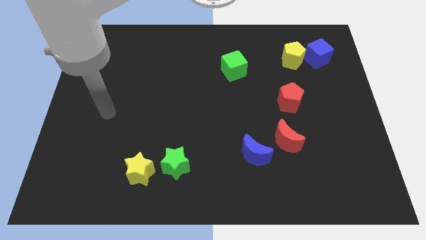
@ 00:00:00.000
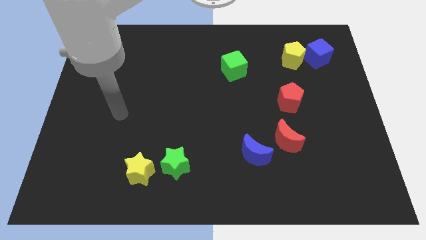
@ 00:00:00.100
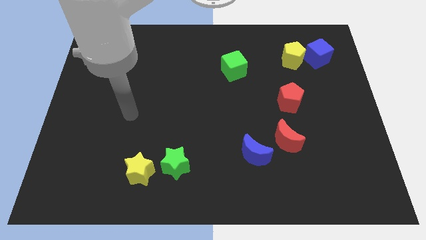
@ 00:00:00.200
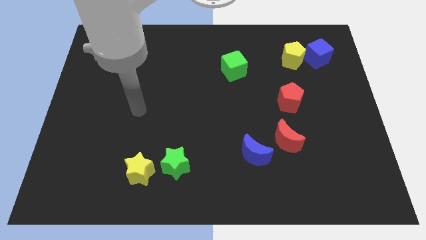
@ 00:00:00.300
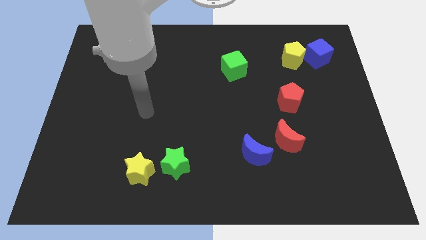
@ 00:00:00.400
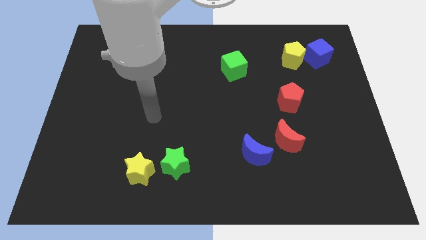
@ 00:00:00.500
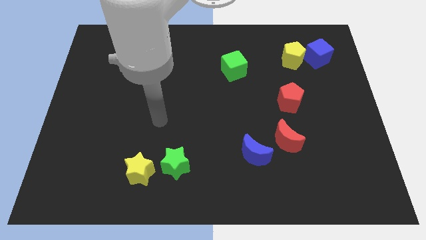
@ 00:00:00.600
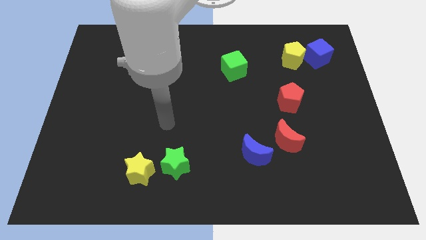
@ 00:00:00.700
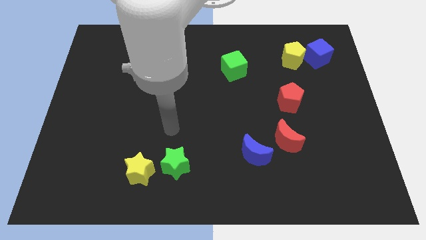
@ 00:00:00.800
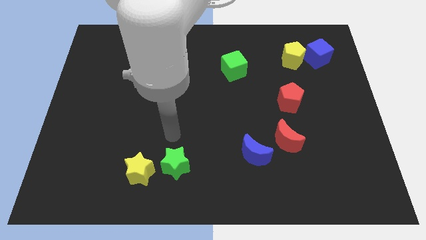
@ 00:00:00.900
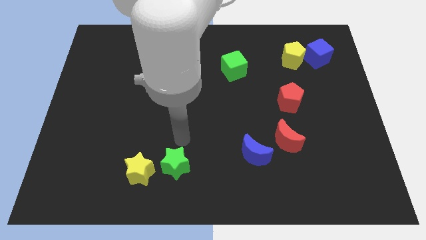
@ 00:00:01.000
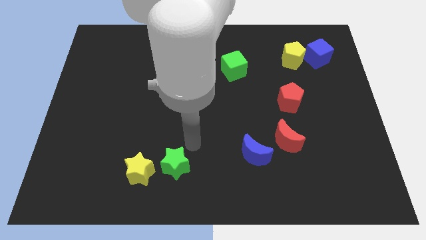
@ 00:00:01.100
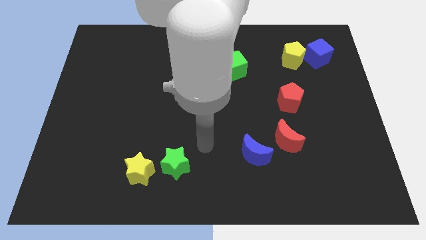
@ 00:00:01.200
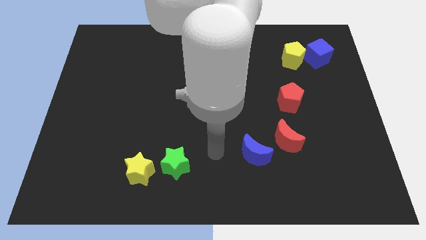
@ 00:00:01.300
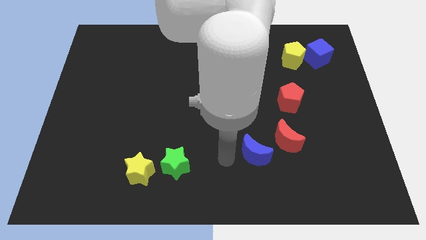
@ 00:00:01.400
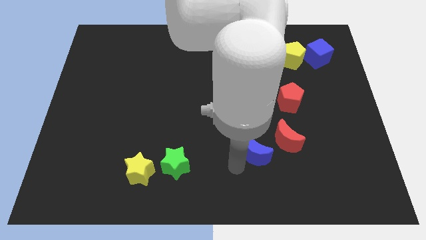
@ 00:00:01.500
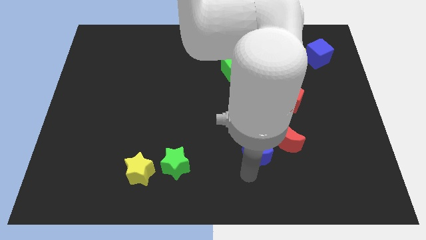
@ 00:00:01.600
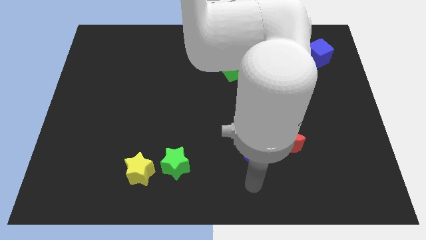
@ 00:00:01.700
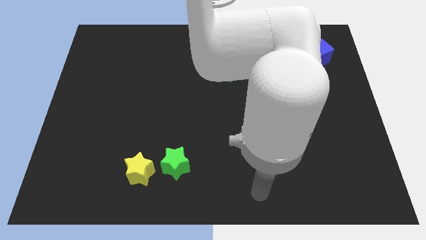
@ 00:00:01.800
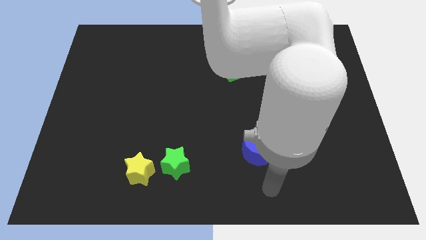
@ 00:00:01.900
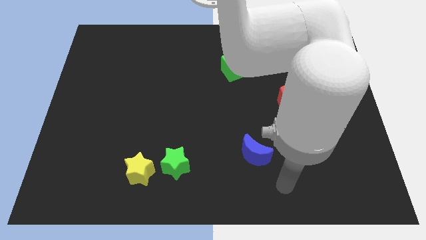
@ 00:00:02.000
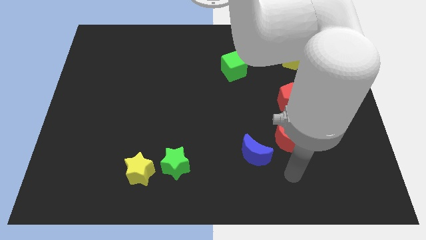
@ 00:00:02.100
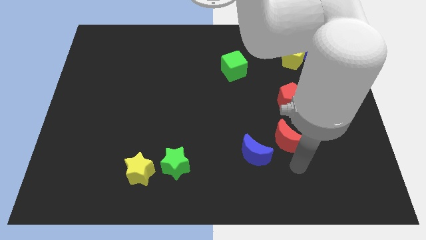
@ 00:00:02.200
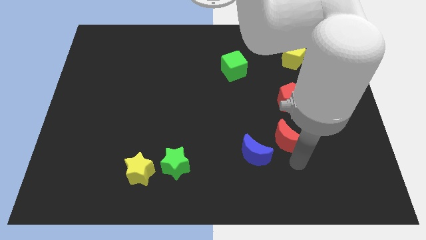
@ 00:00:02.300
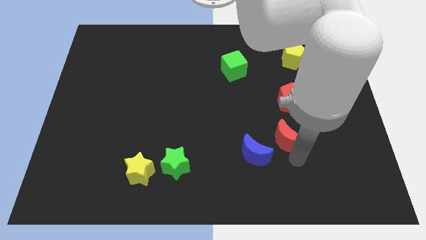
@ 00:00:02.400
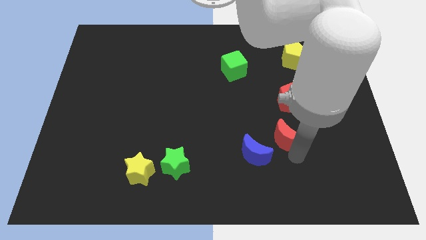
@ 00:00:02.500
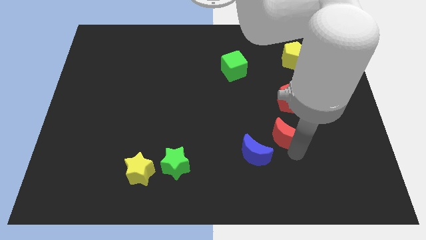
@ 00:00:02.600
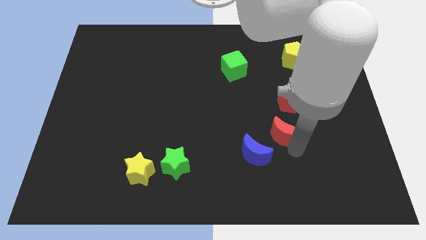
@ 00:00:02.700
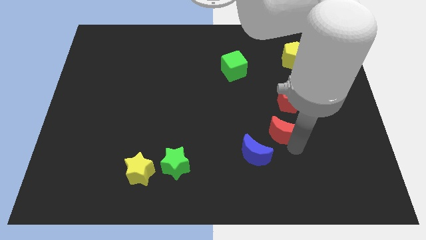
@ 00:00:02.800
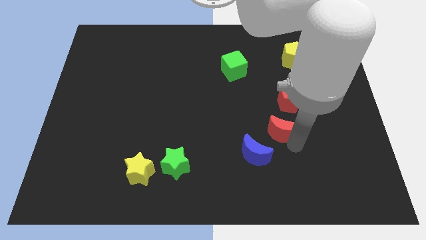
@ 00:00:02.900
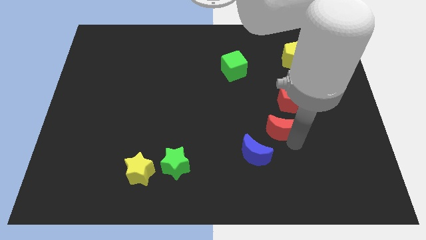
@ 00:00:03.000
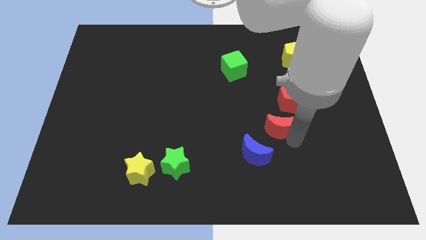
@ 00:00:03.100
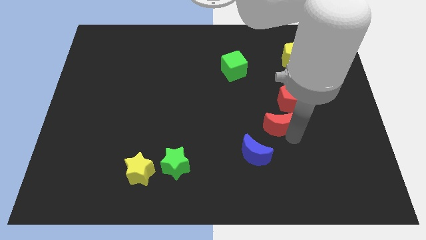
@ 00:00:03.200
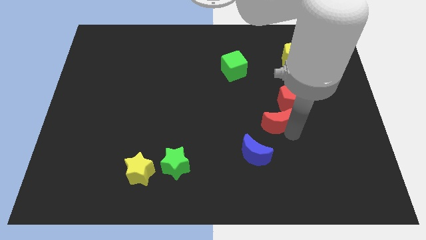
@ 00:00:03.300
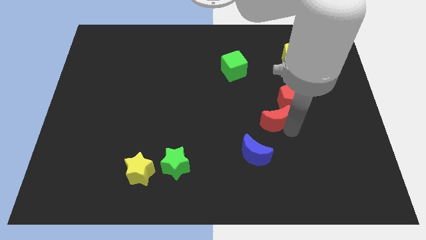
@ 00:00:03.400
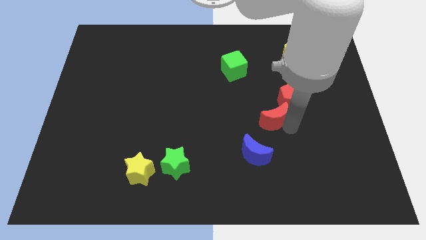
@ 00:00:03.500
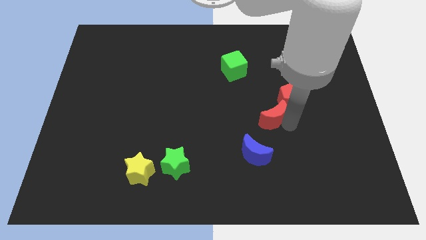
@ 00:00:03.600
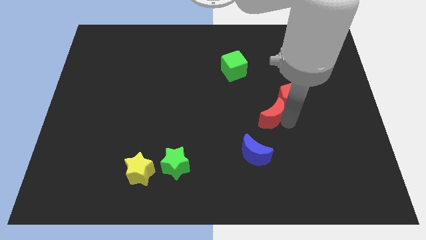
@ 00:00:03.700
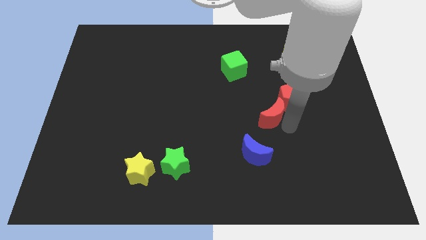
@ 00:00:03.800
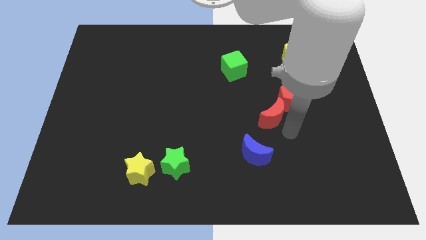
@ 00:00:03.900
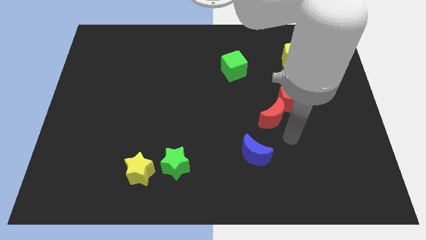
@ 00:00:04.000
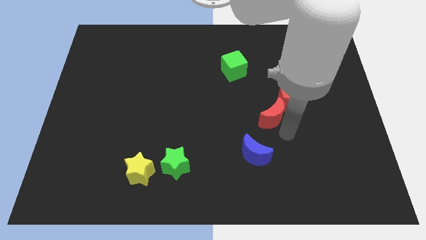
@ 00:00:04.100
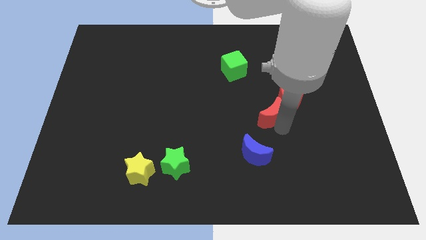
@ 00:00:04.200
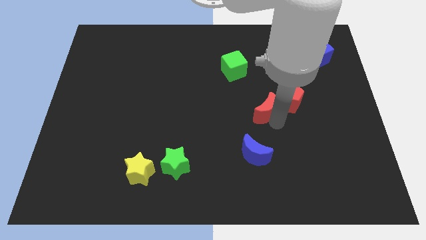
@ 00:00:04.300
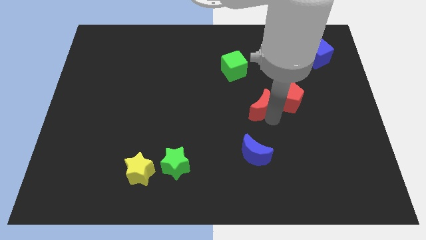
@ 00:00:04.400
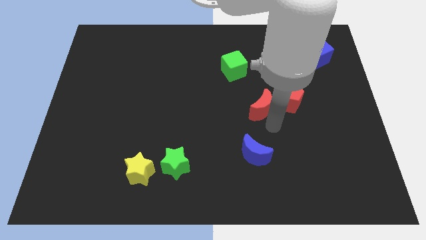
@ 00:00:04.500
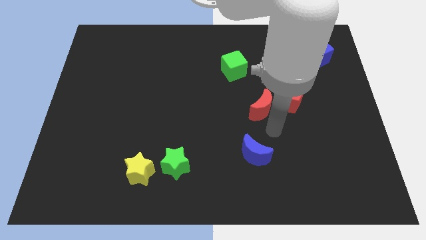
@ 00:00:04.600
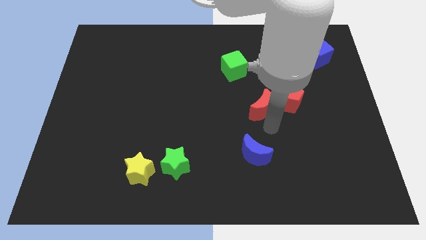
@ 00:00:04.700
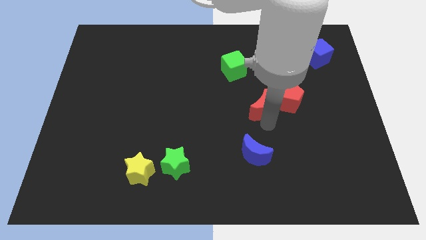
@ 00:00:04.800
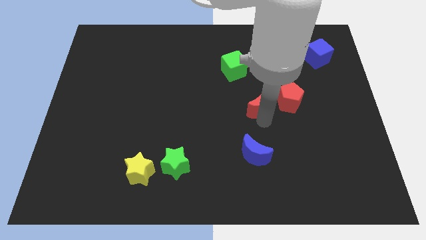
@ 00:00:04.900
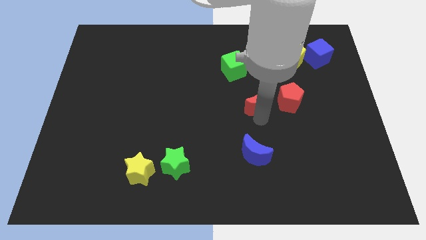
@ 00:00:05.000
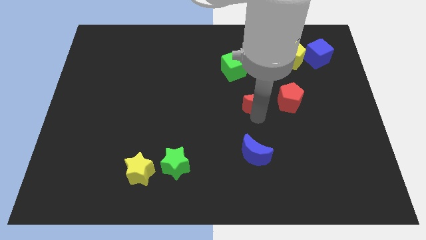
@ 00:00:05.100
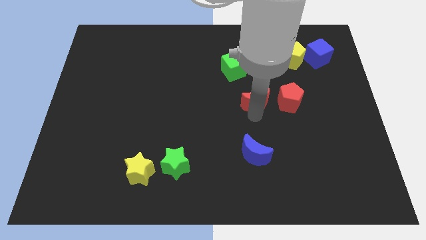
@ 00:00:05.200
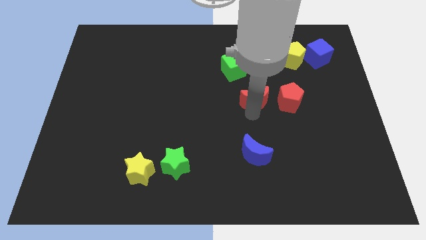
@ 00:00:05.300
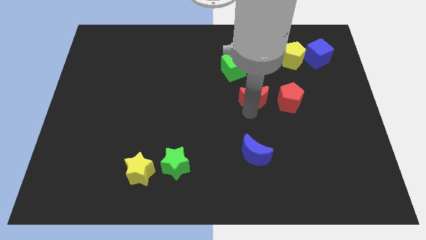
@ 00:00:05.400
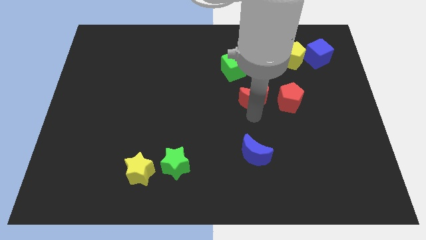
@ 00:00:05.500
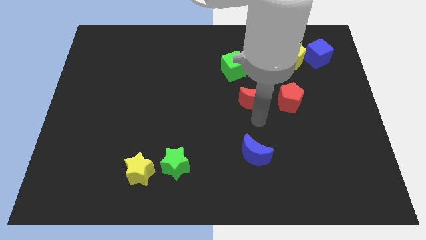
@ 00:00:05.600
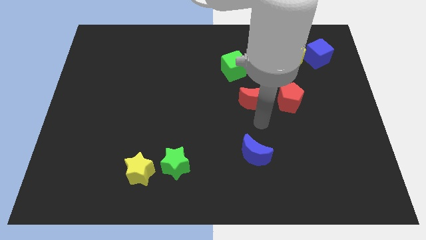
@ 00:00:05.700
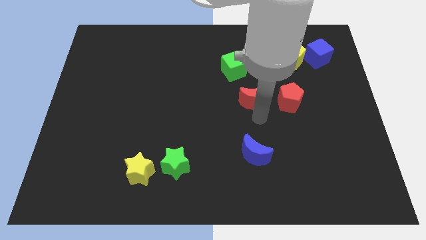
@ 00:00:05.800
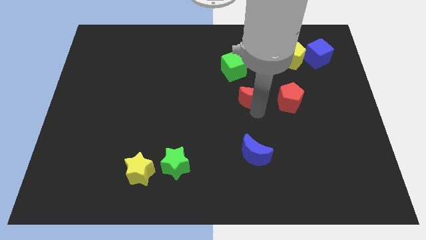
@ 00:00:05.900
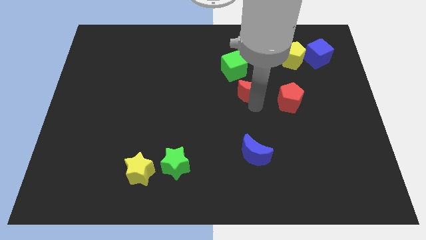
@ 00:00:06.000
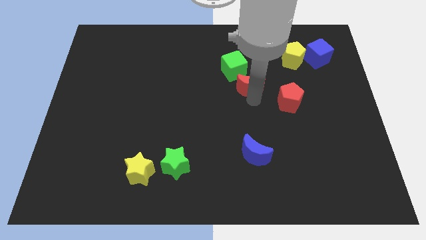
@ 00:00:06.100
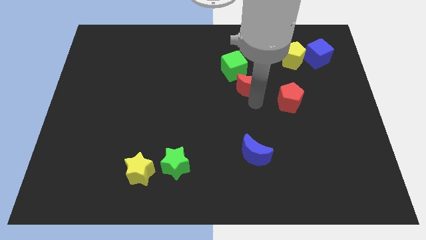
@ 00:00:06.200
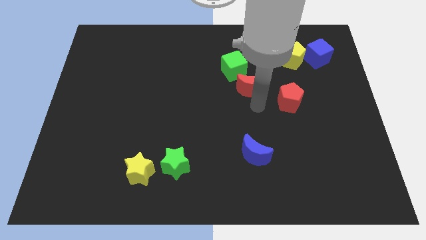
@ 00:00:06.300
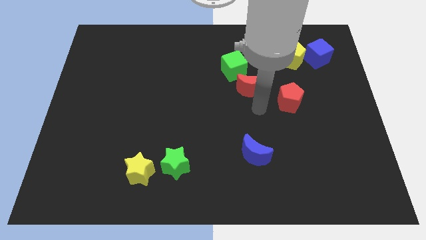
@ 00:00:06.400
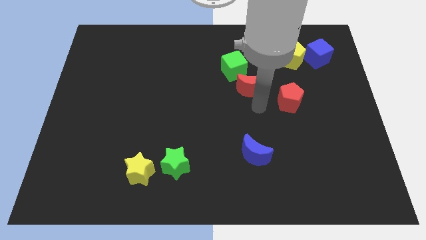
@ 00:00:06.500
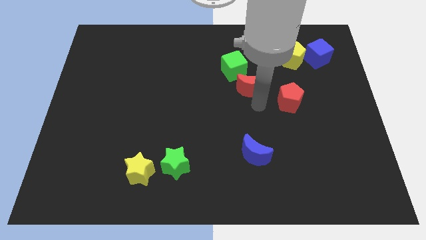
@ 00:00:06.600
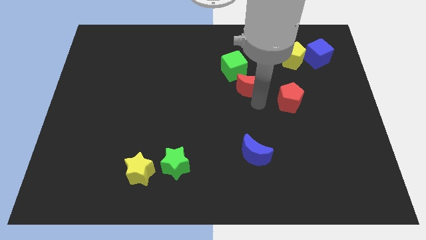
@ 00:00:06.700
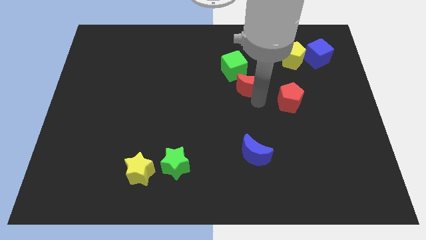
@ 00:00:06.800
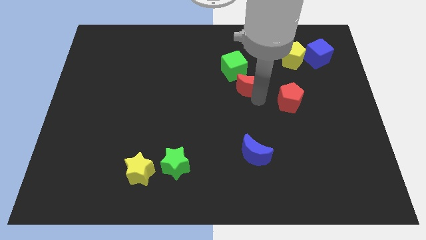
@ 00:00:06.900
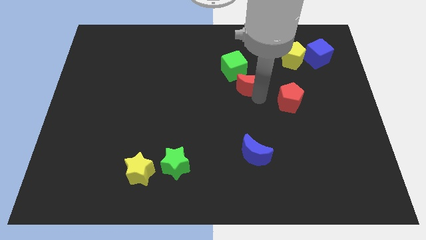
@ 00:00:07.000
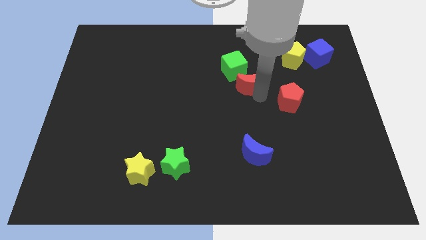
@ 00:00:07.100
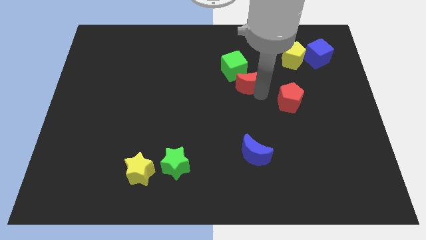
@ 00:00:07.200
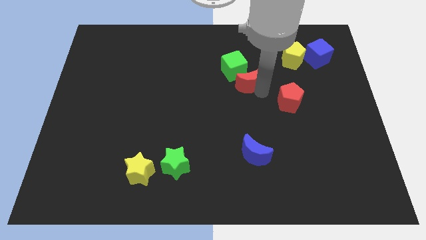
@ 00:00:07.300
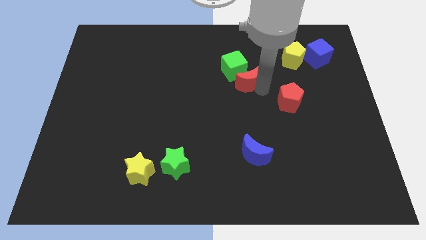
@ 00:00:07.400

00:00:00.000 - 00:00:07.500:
push the red moon towards the green cube

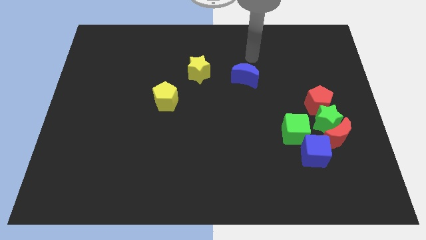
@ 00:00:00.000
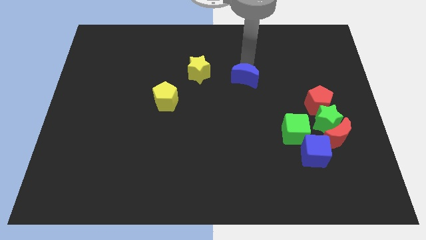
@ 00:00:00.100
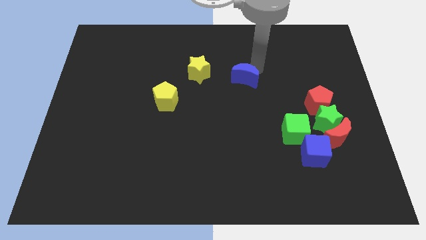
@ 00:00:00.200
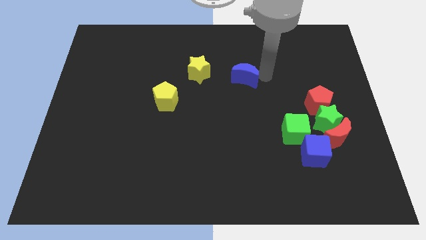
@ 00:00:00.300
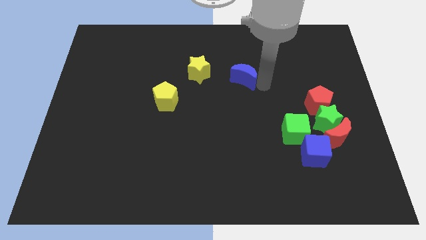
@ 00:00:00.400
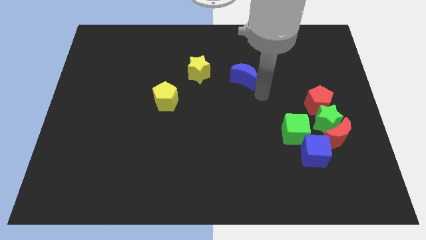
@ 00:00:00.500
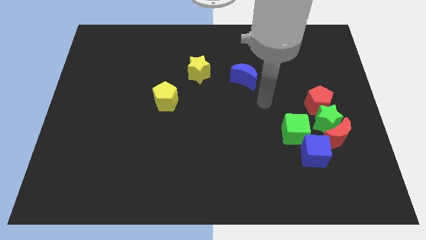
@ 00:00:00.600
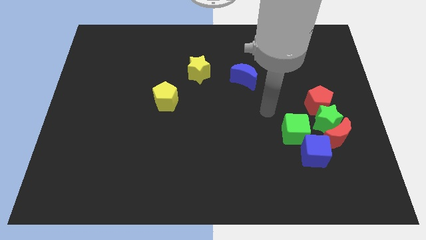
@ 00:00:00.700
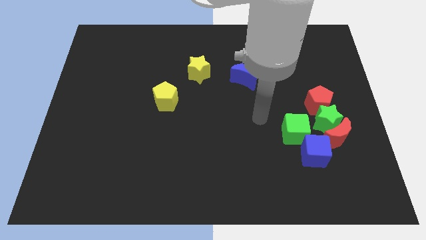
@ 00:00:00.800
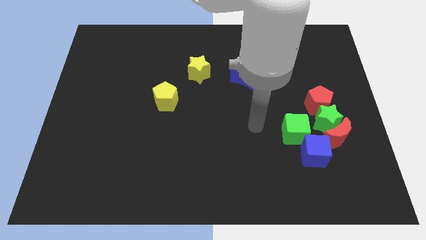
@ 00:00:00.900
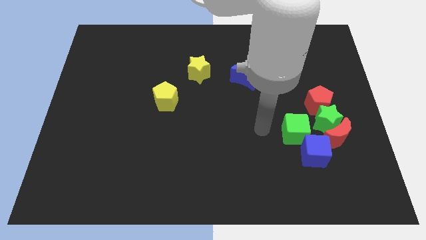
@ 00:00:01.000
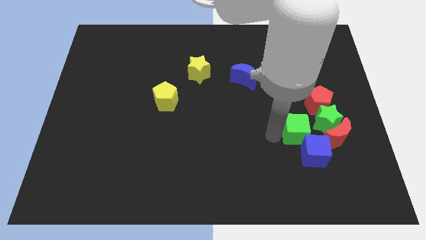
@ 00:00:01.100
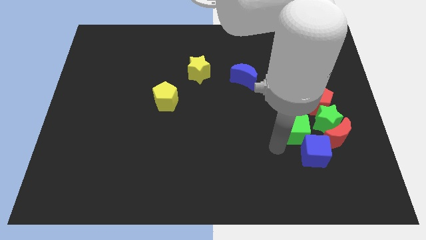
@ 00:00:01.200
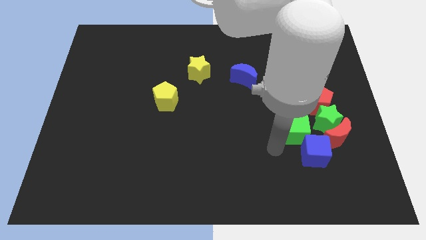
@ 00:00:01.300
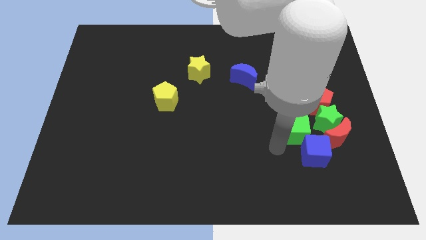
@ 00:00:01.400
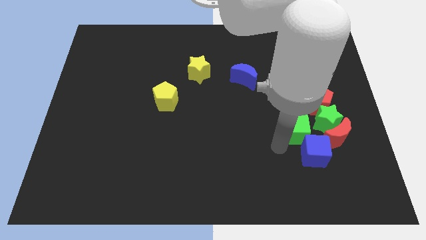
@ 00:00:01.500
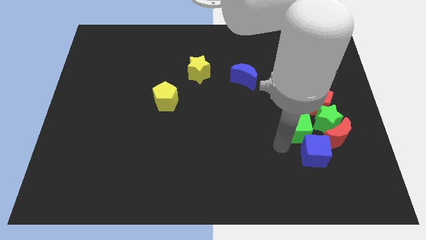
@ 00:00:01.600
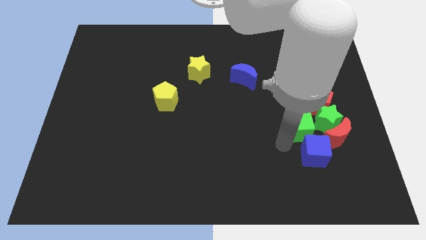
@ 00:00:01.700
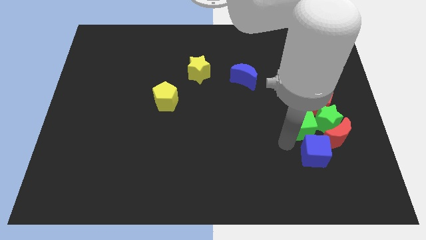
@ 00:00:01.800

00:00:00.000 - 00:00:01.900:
push the green cube next to the green star
